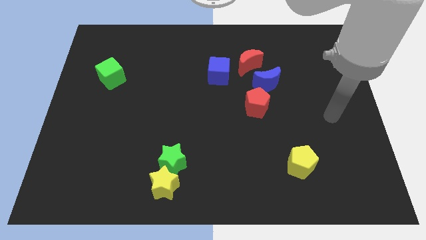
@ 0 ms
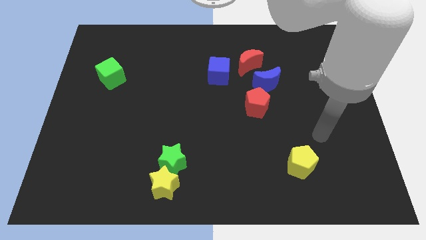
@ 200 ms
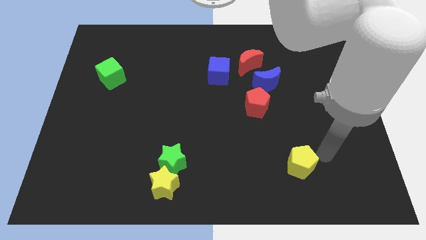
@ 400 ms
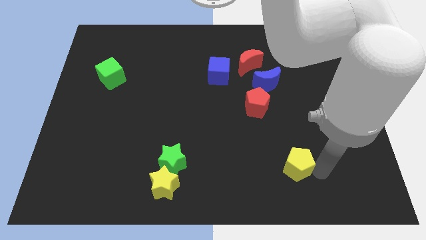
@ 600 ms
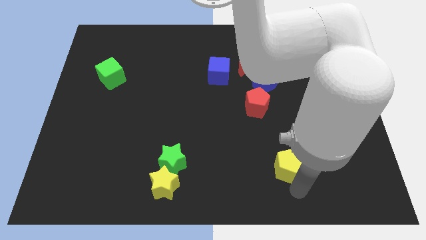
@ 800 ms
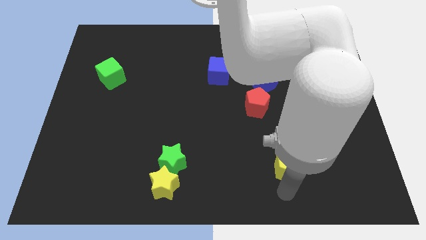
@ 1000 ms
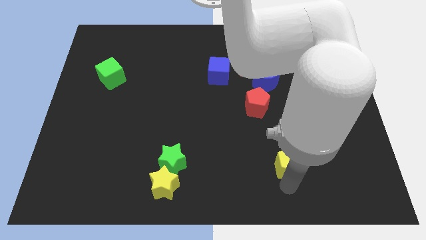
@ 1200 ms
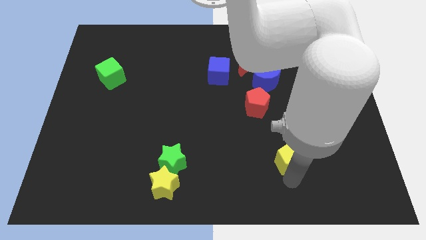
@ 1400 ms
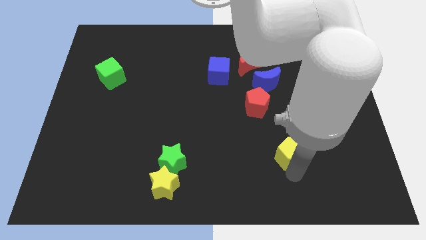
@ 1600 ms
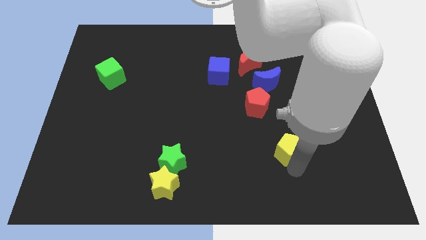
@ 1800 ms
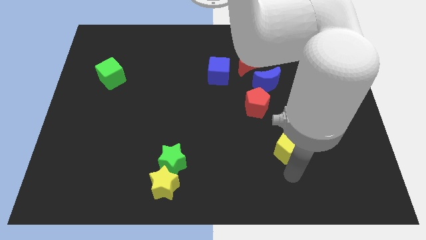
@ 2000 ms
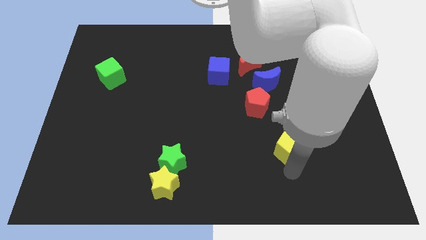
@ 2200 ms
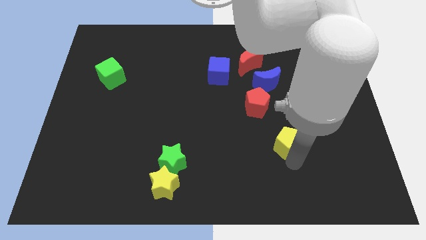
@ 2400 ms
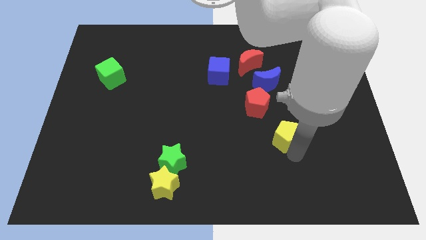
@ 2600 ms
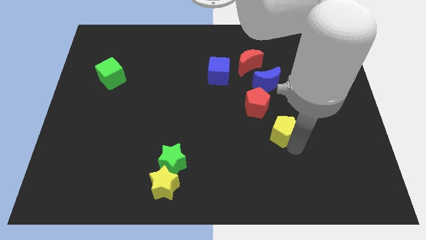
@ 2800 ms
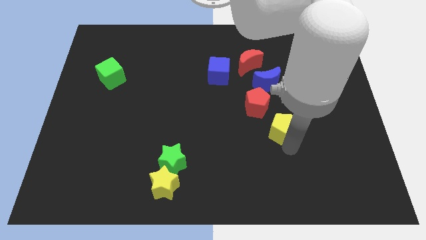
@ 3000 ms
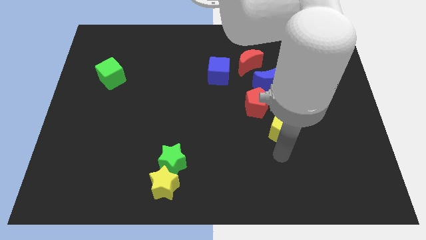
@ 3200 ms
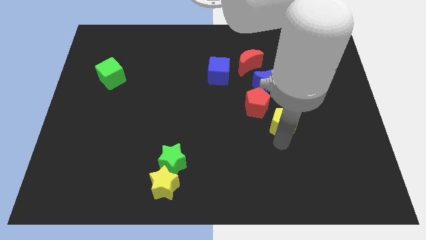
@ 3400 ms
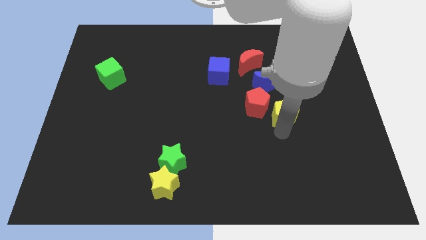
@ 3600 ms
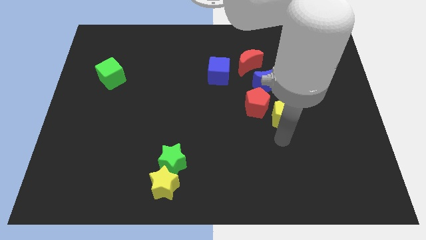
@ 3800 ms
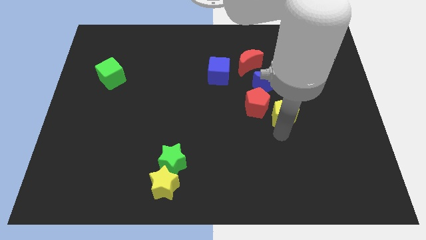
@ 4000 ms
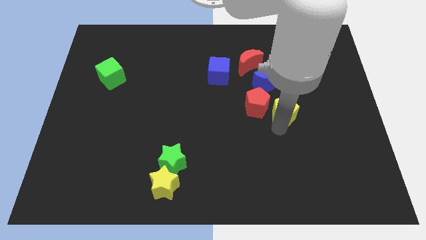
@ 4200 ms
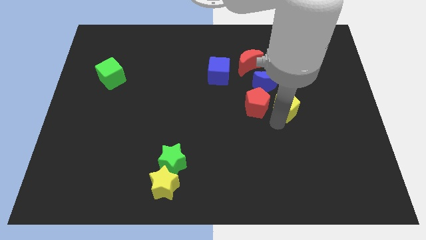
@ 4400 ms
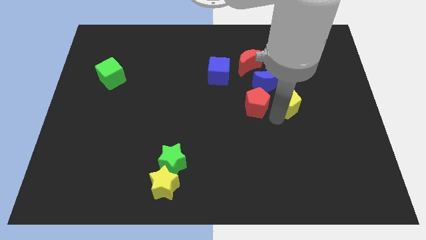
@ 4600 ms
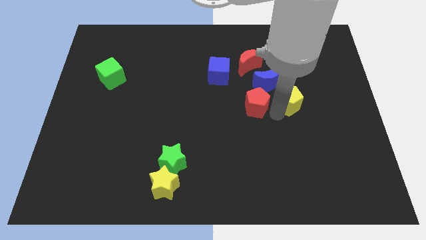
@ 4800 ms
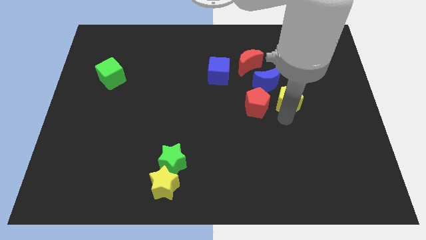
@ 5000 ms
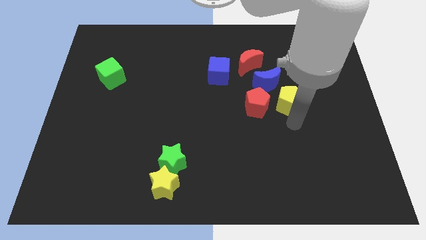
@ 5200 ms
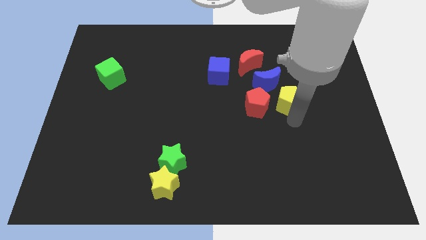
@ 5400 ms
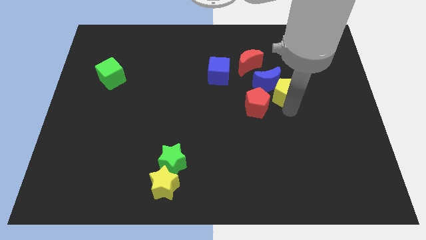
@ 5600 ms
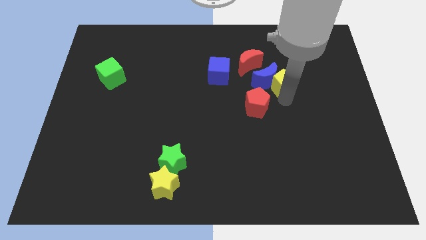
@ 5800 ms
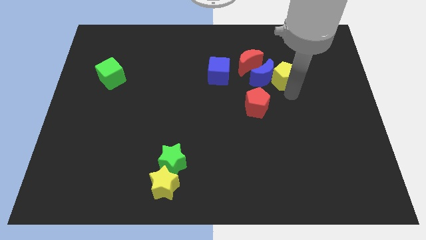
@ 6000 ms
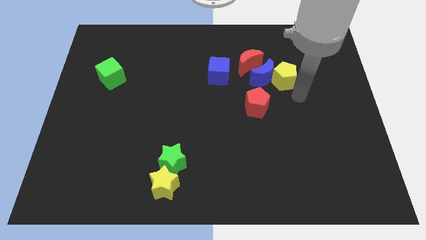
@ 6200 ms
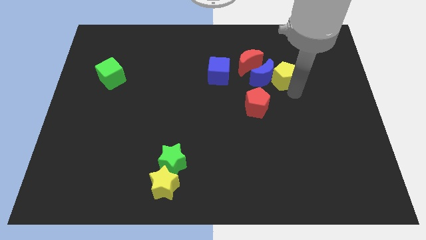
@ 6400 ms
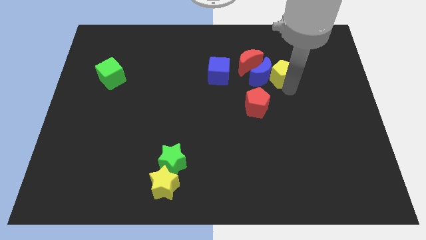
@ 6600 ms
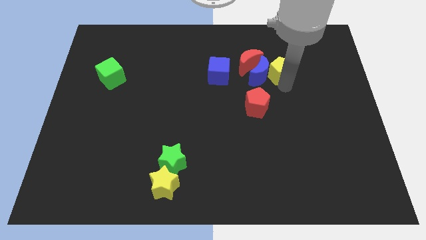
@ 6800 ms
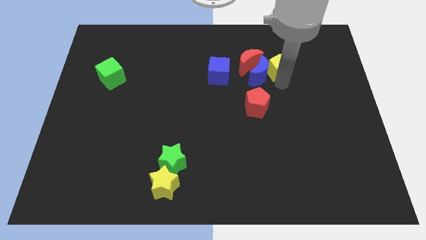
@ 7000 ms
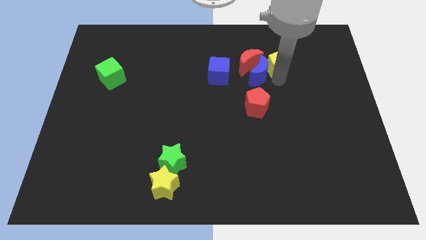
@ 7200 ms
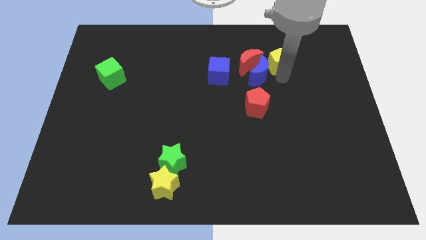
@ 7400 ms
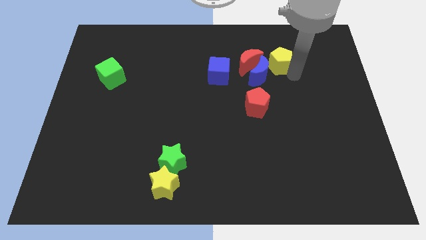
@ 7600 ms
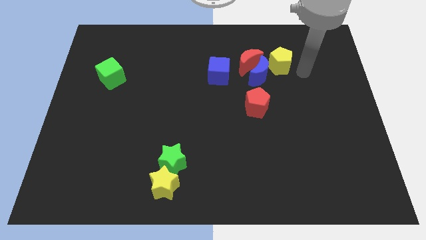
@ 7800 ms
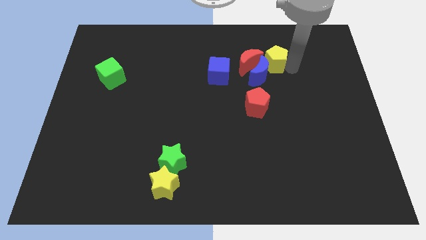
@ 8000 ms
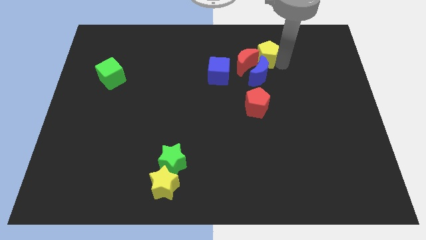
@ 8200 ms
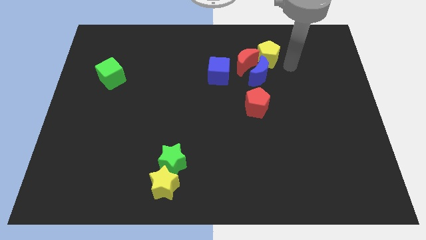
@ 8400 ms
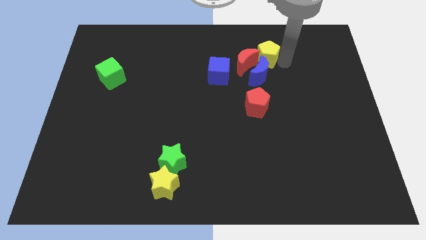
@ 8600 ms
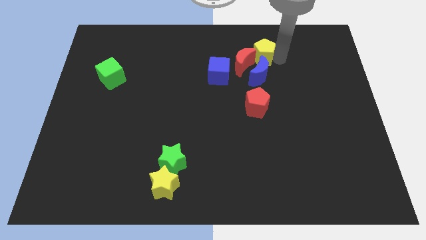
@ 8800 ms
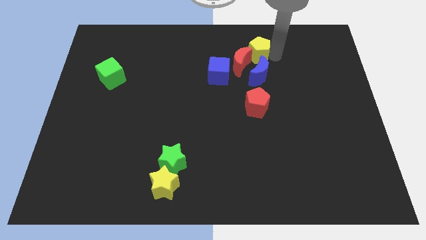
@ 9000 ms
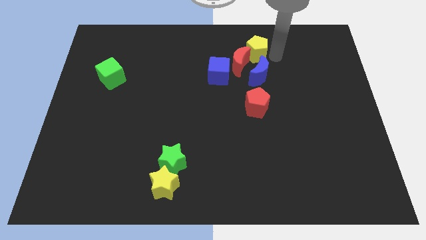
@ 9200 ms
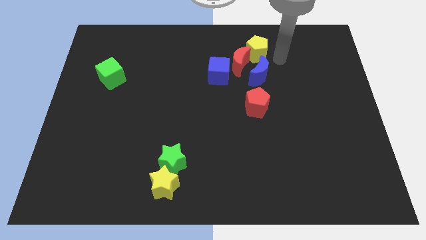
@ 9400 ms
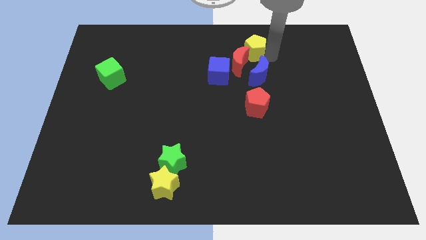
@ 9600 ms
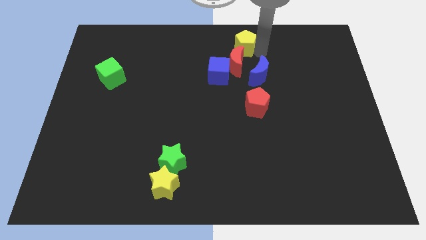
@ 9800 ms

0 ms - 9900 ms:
slide the yellow pentagon to the towards your base

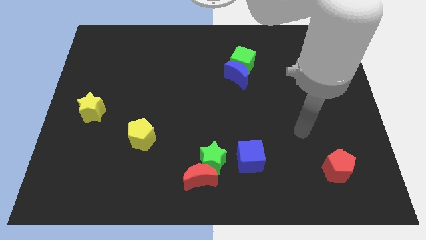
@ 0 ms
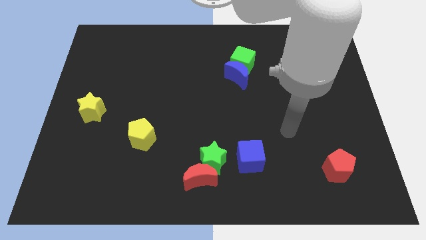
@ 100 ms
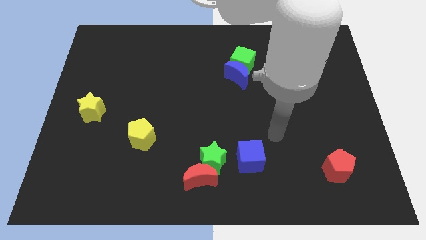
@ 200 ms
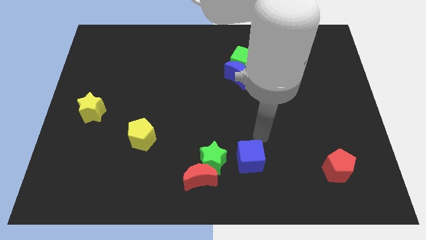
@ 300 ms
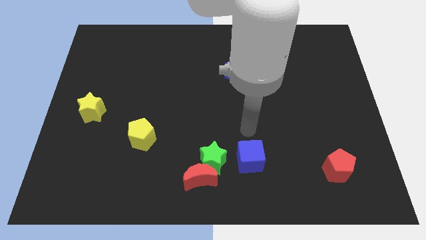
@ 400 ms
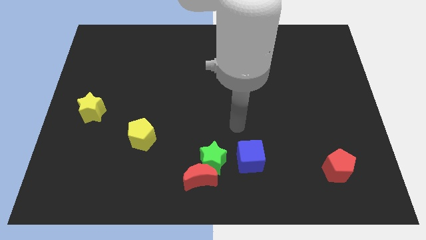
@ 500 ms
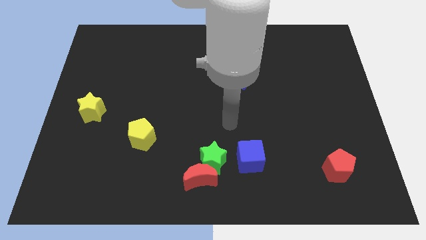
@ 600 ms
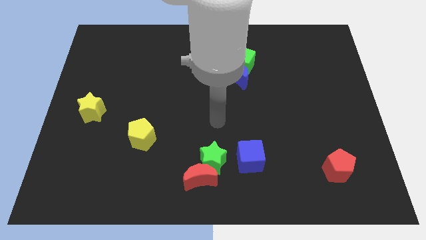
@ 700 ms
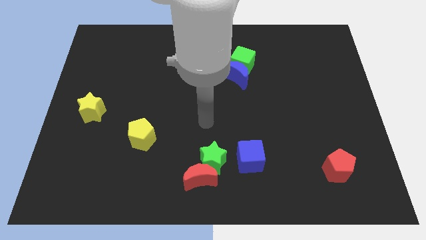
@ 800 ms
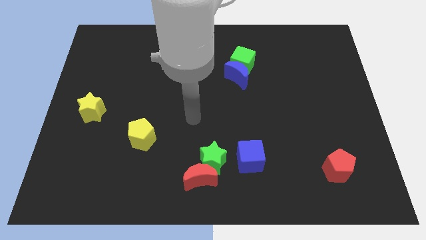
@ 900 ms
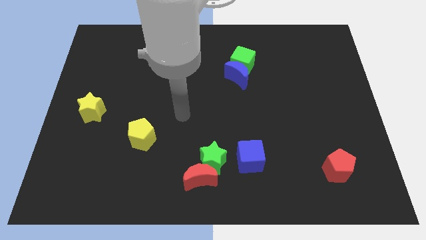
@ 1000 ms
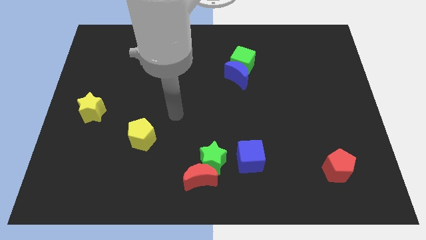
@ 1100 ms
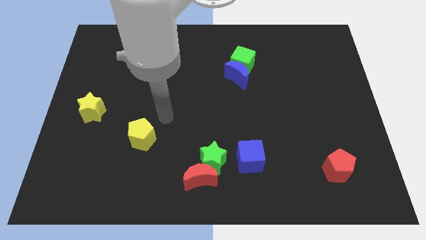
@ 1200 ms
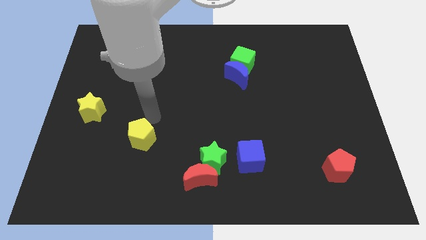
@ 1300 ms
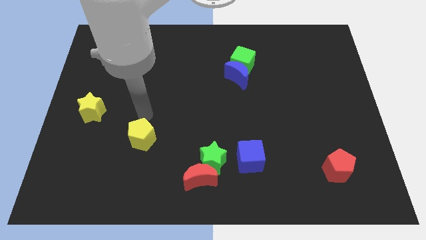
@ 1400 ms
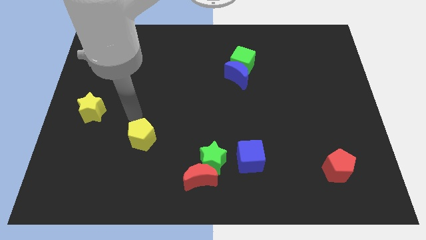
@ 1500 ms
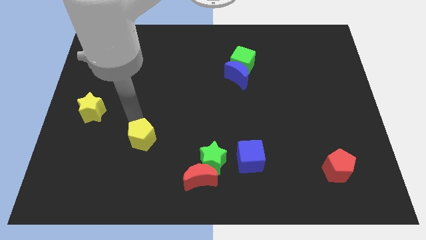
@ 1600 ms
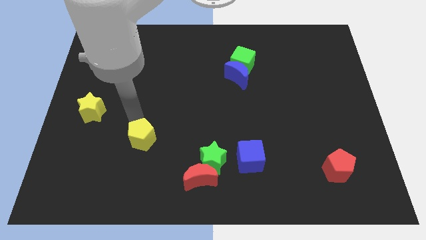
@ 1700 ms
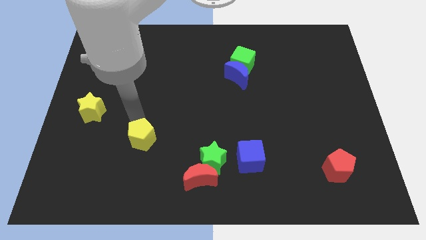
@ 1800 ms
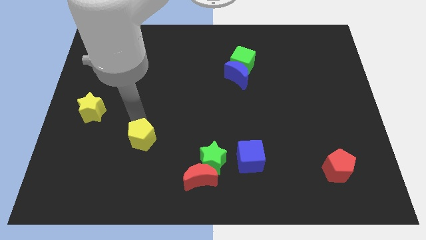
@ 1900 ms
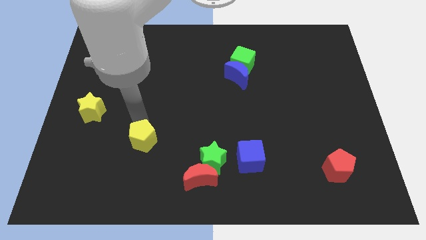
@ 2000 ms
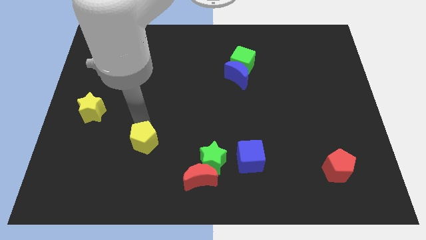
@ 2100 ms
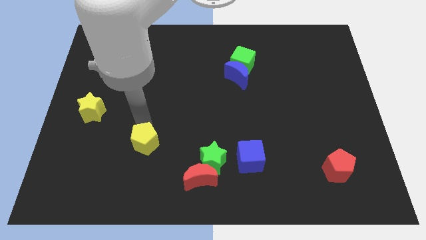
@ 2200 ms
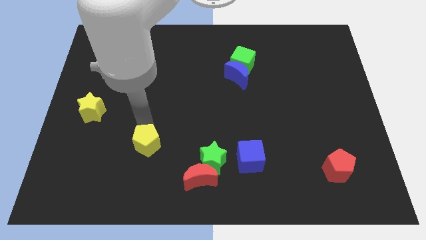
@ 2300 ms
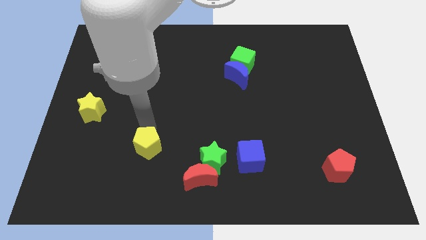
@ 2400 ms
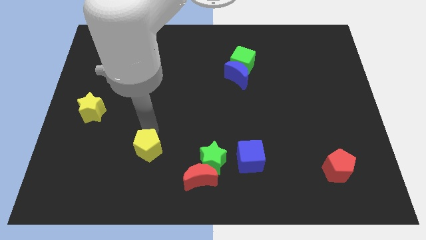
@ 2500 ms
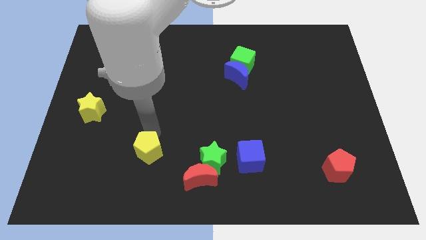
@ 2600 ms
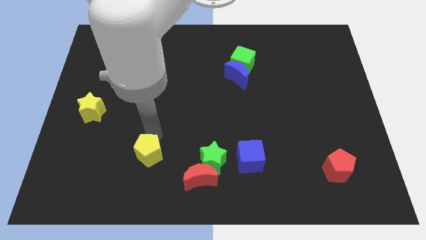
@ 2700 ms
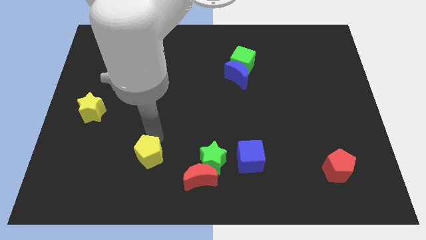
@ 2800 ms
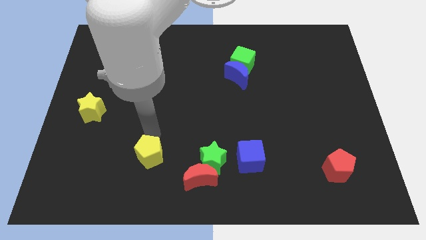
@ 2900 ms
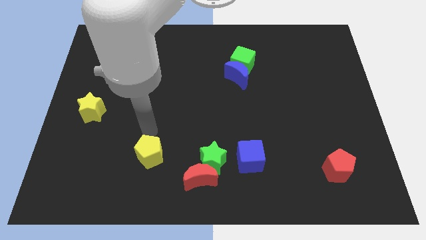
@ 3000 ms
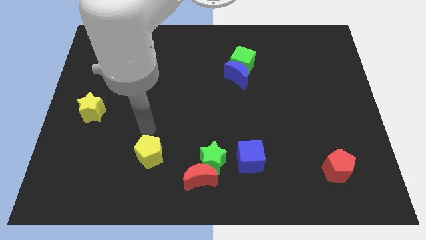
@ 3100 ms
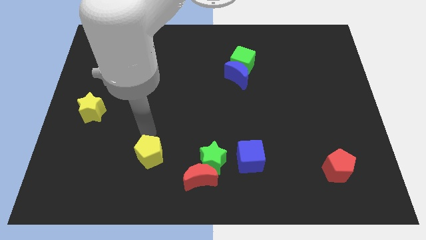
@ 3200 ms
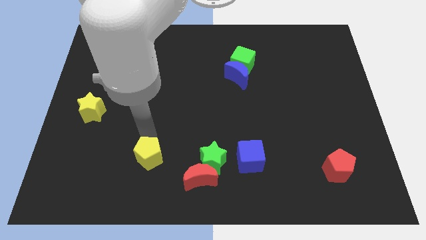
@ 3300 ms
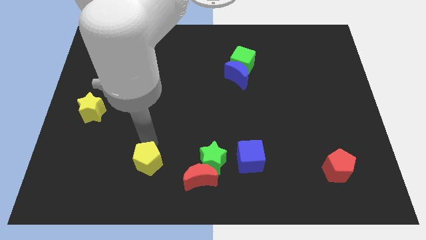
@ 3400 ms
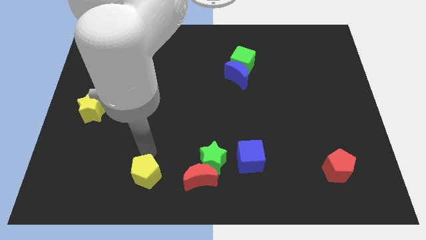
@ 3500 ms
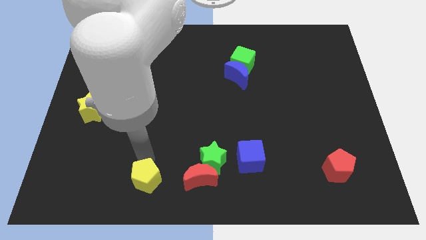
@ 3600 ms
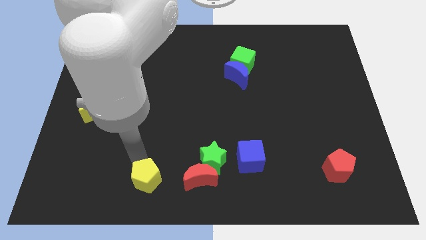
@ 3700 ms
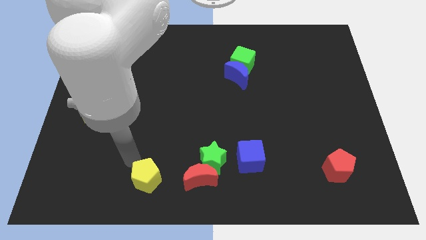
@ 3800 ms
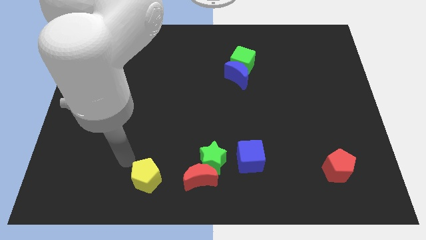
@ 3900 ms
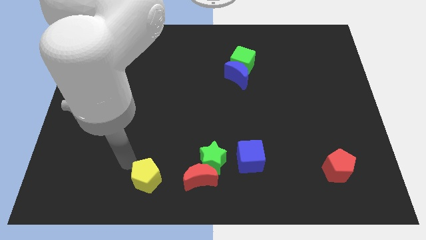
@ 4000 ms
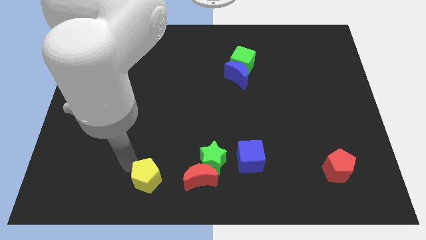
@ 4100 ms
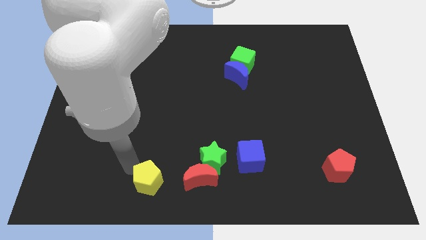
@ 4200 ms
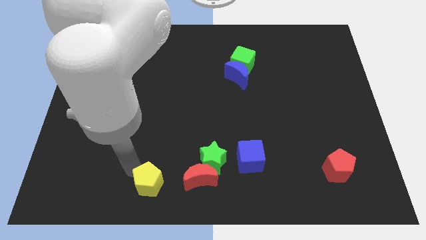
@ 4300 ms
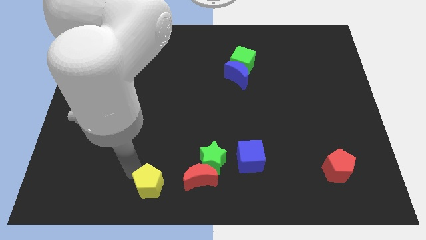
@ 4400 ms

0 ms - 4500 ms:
move the yellow pentagon to the bottom
